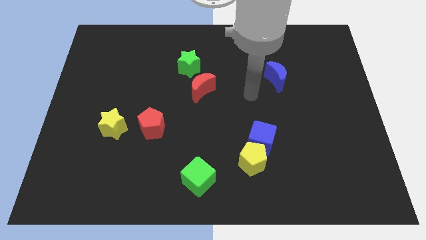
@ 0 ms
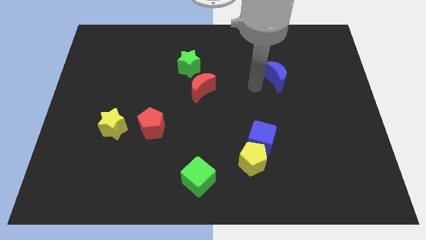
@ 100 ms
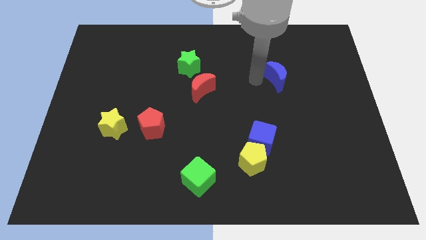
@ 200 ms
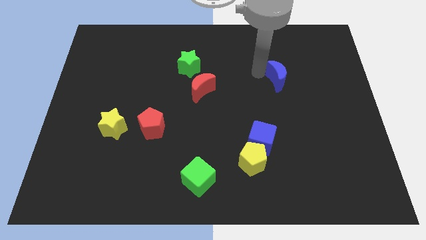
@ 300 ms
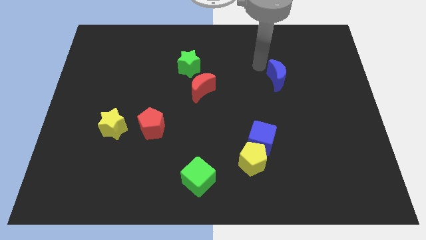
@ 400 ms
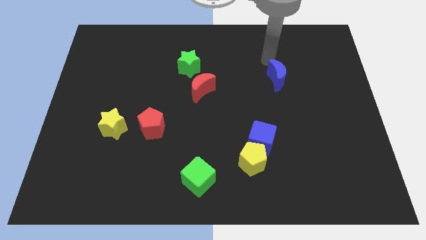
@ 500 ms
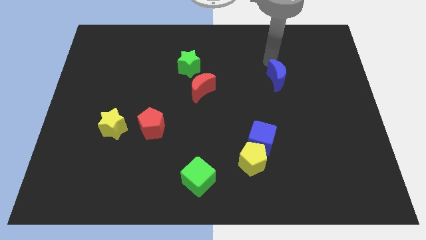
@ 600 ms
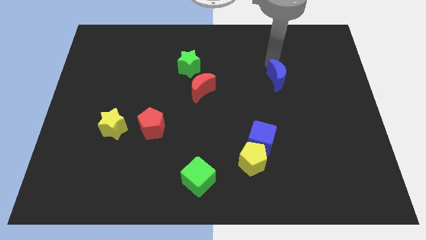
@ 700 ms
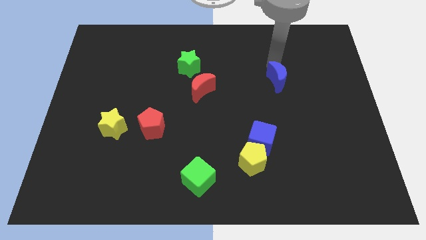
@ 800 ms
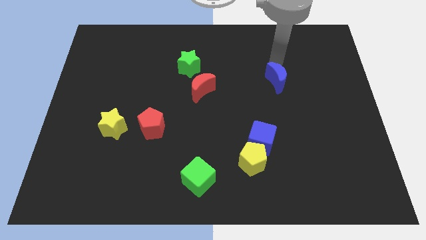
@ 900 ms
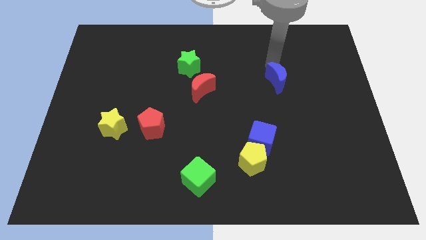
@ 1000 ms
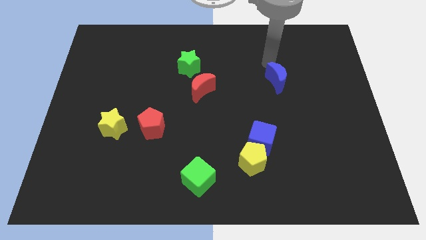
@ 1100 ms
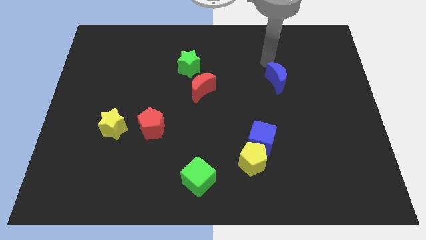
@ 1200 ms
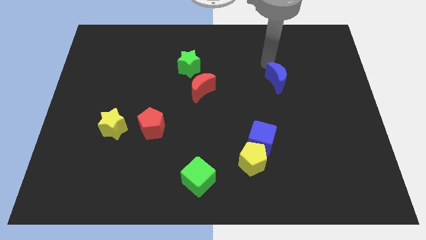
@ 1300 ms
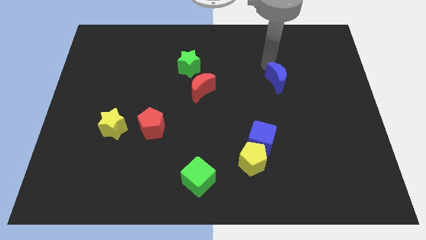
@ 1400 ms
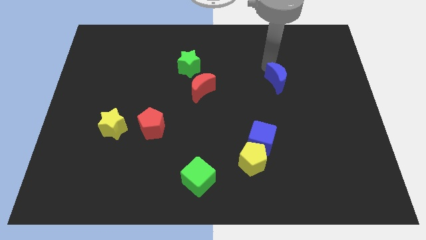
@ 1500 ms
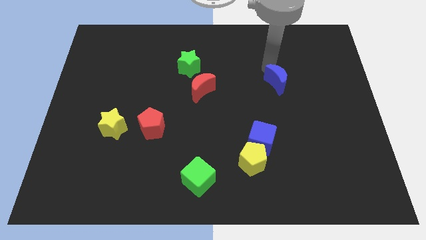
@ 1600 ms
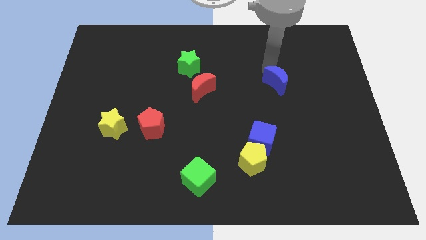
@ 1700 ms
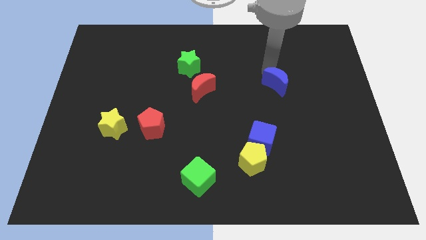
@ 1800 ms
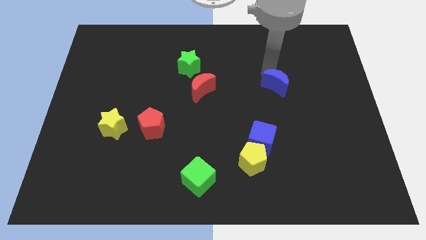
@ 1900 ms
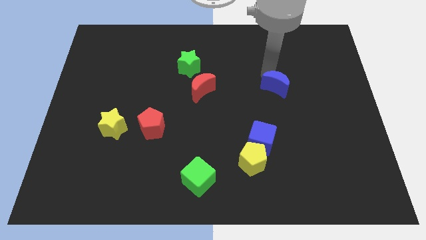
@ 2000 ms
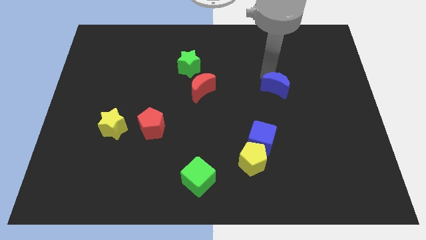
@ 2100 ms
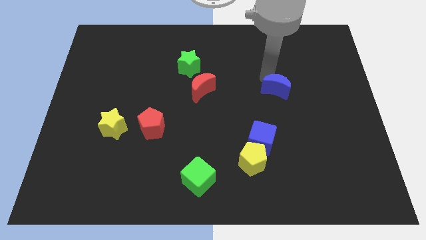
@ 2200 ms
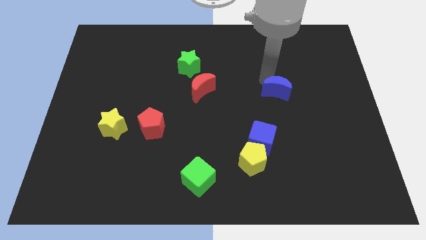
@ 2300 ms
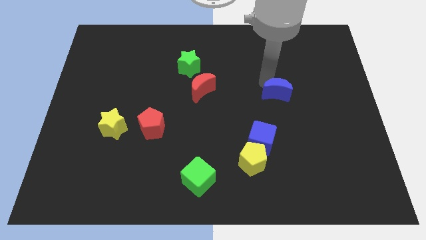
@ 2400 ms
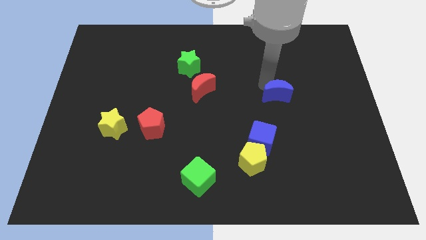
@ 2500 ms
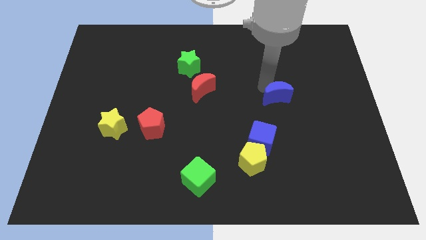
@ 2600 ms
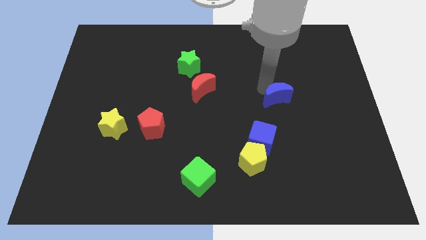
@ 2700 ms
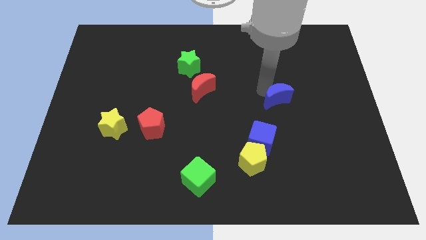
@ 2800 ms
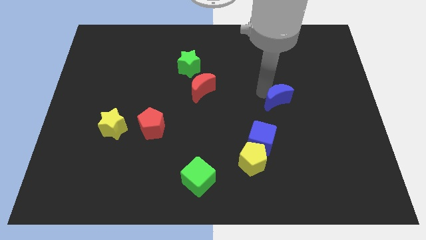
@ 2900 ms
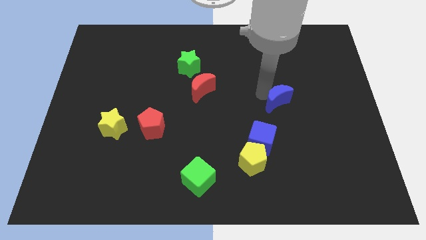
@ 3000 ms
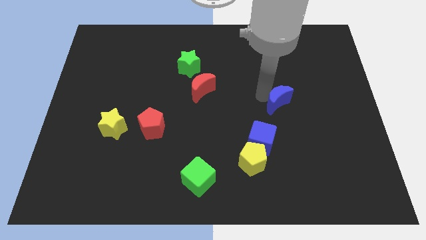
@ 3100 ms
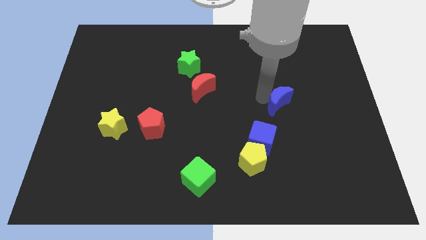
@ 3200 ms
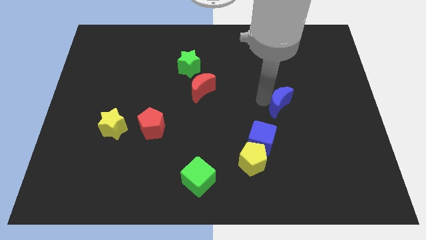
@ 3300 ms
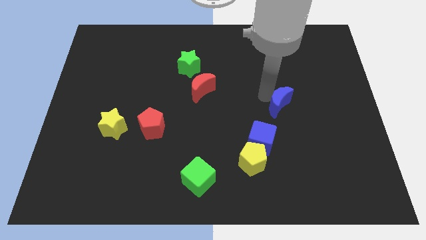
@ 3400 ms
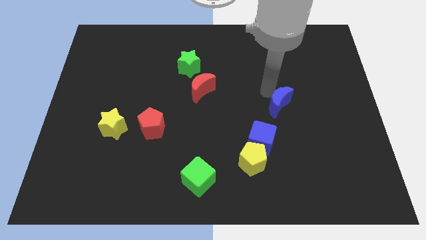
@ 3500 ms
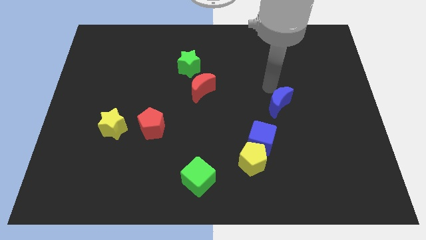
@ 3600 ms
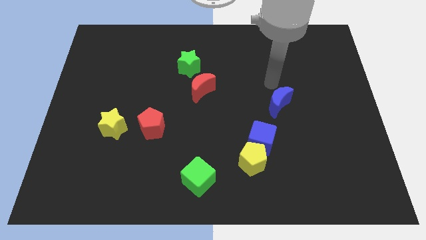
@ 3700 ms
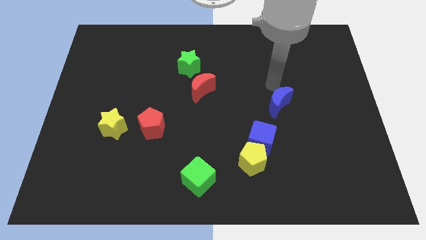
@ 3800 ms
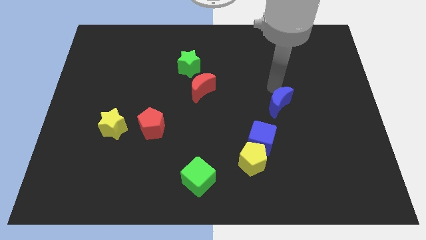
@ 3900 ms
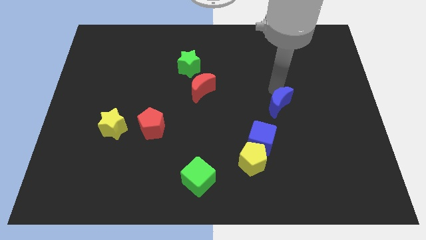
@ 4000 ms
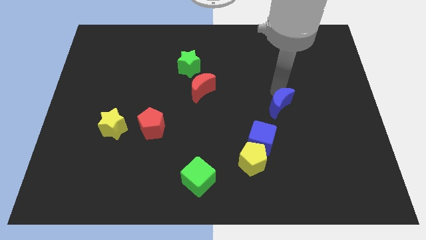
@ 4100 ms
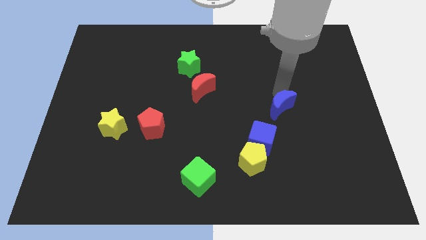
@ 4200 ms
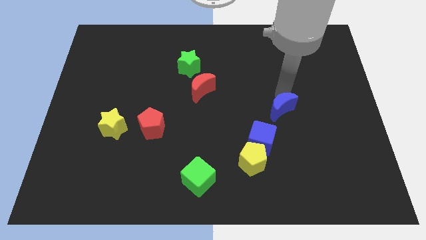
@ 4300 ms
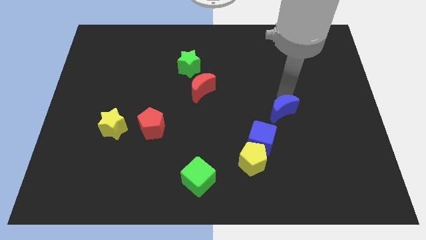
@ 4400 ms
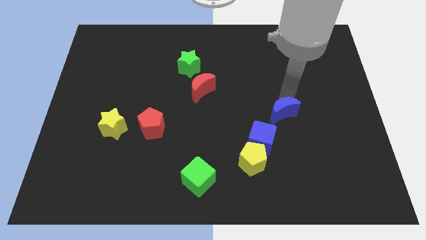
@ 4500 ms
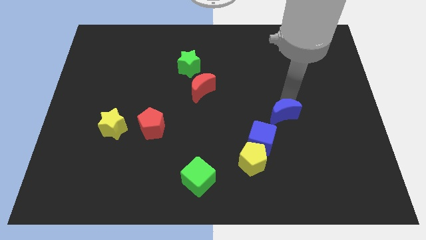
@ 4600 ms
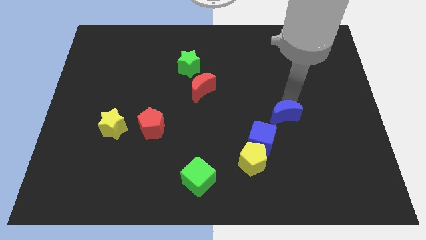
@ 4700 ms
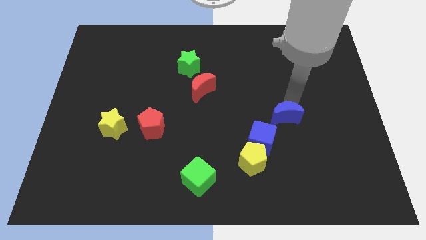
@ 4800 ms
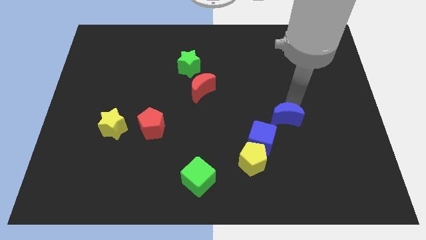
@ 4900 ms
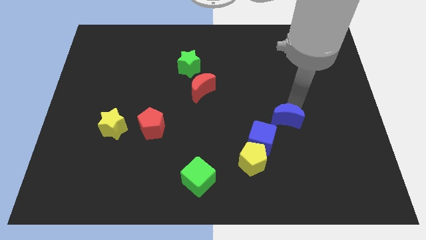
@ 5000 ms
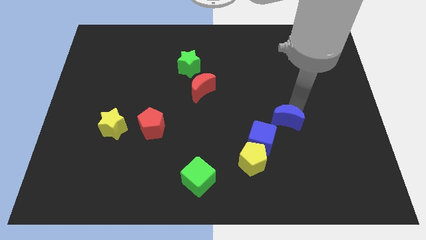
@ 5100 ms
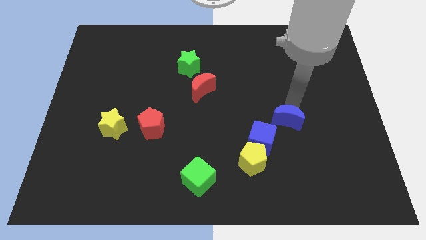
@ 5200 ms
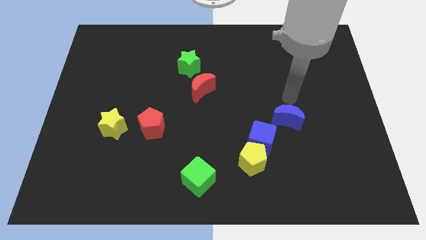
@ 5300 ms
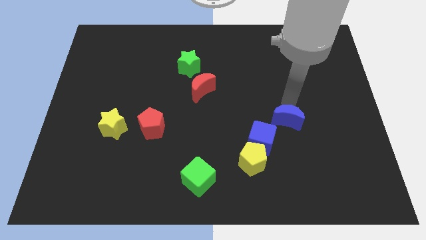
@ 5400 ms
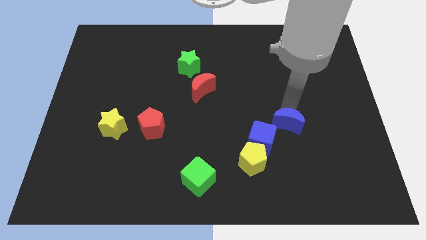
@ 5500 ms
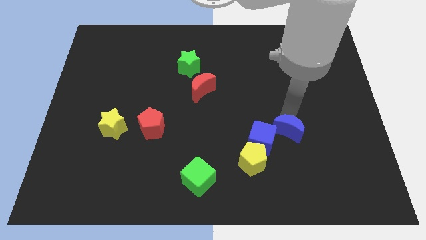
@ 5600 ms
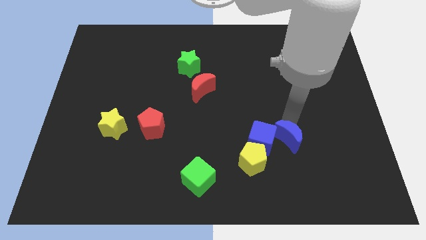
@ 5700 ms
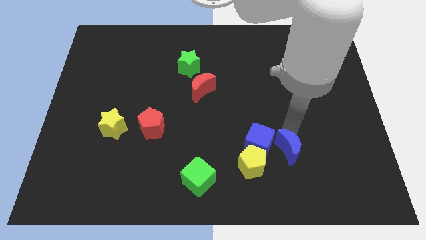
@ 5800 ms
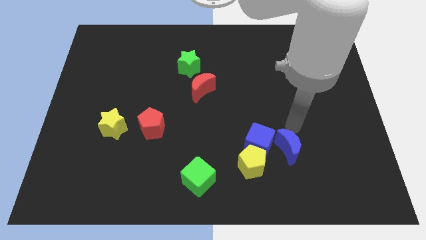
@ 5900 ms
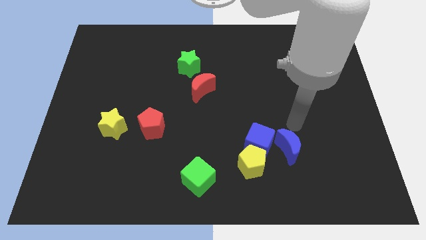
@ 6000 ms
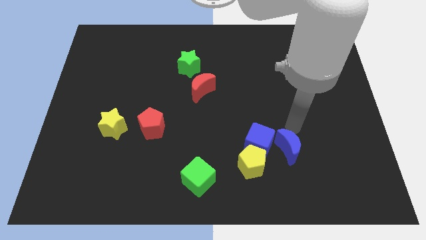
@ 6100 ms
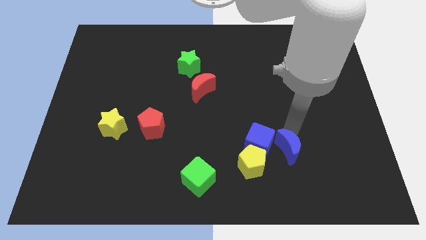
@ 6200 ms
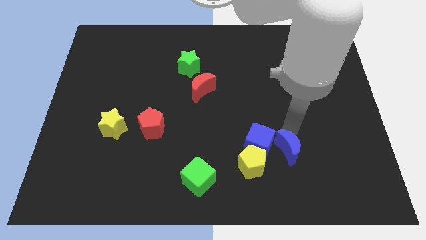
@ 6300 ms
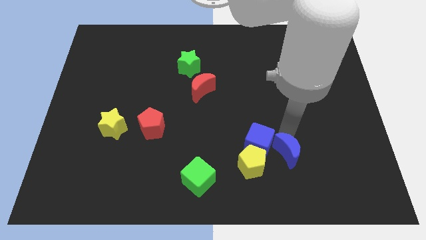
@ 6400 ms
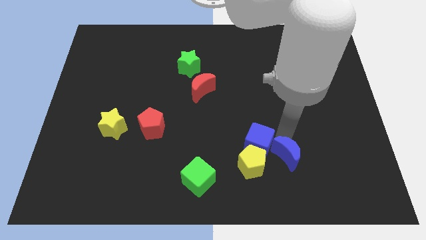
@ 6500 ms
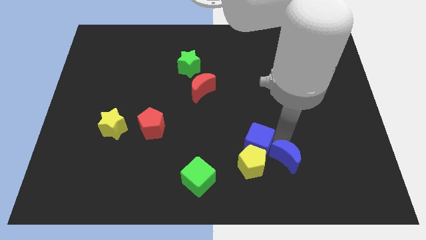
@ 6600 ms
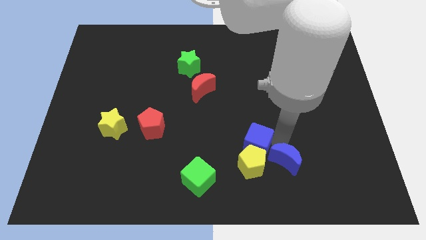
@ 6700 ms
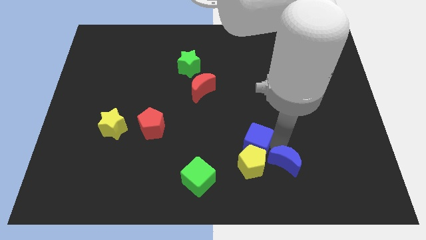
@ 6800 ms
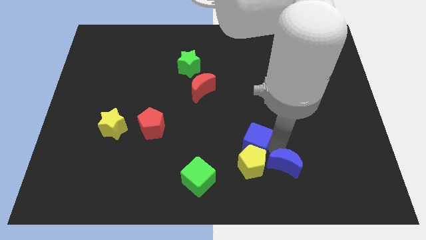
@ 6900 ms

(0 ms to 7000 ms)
push the blue moon to the bottom right of the yellow pentagon
